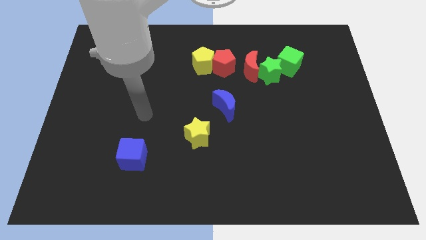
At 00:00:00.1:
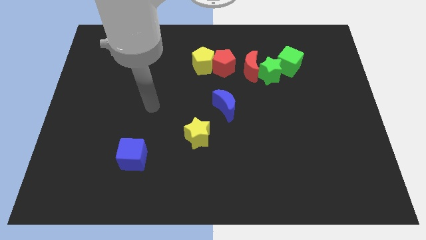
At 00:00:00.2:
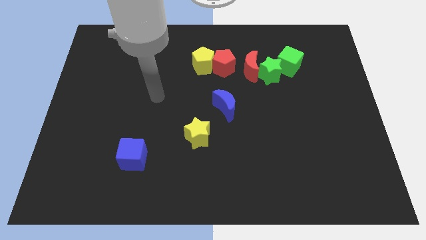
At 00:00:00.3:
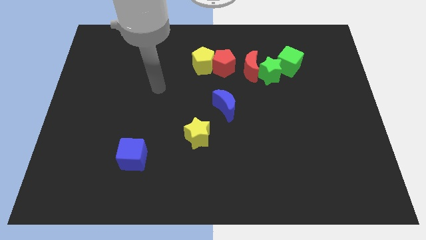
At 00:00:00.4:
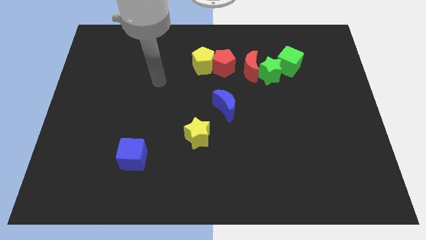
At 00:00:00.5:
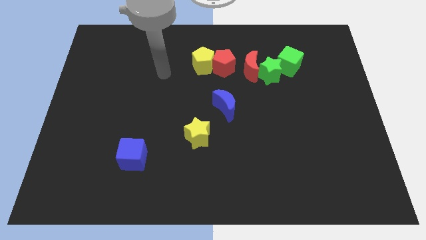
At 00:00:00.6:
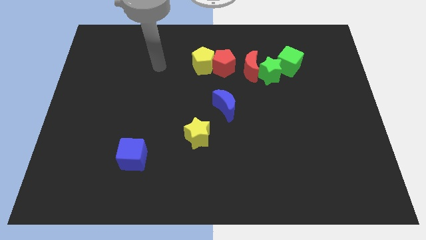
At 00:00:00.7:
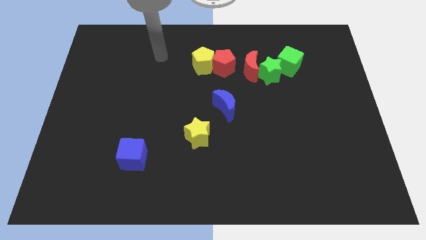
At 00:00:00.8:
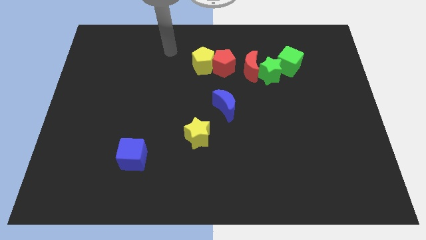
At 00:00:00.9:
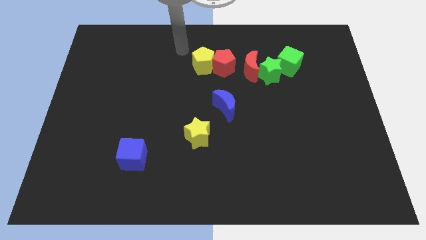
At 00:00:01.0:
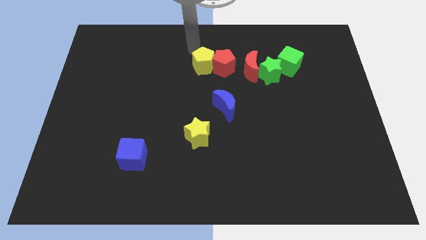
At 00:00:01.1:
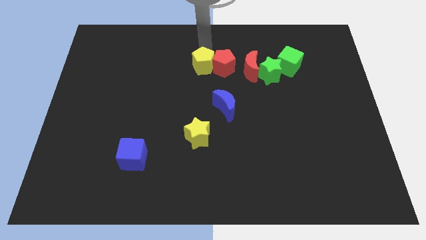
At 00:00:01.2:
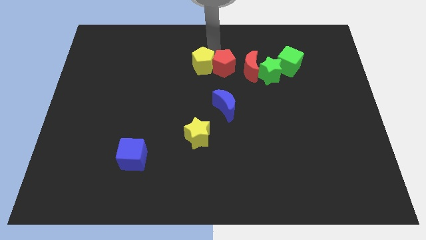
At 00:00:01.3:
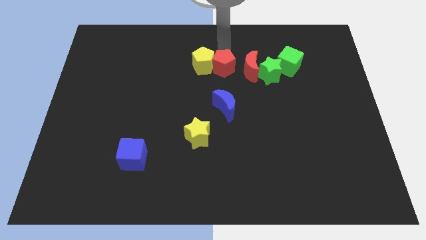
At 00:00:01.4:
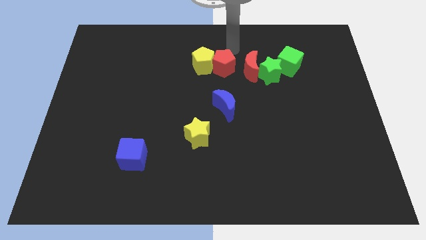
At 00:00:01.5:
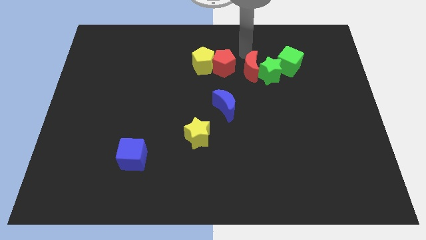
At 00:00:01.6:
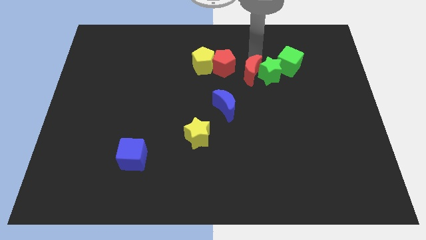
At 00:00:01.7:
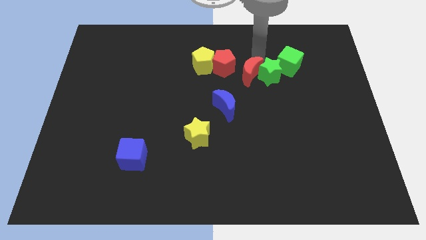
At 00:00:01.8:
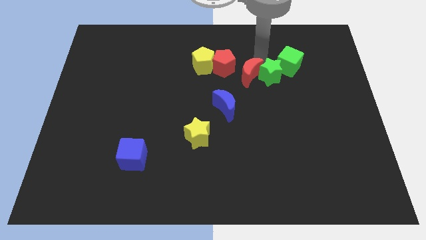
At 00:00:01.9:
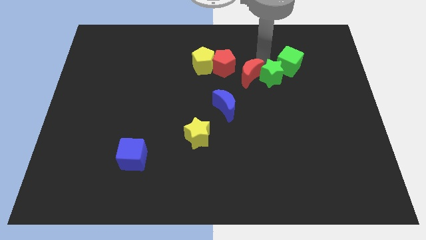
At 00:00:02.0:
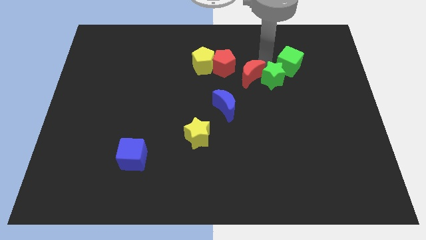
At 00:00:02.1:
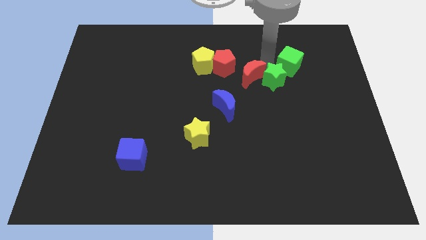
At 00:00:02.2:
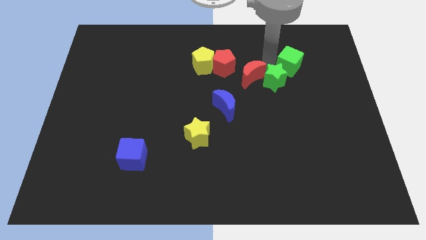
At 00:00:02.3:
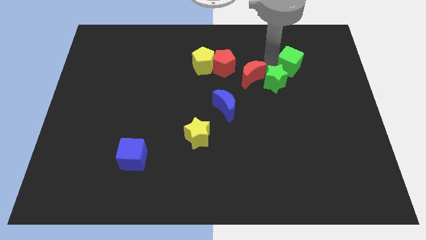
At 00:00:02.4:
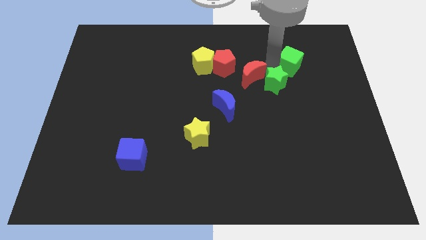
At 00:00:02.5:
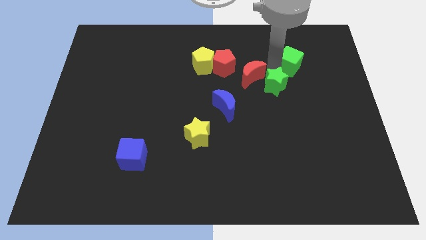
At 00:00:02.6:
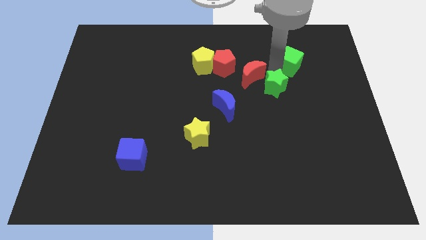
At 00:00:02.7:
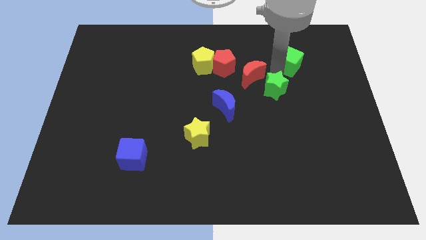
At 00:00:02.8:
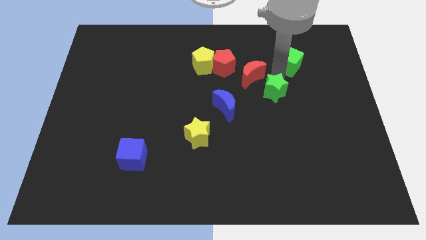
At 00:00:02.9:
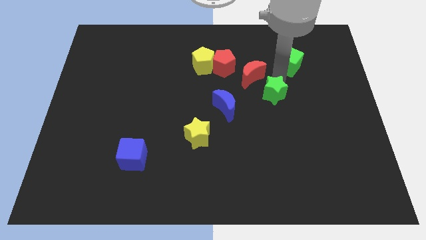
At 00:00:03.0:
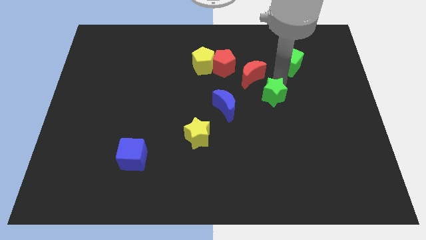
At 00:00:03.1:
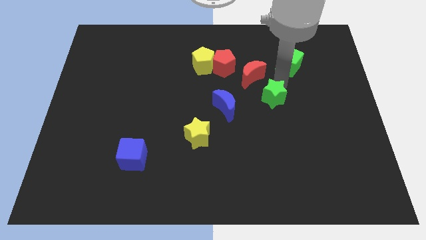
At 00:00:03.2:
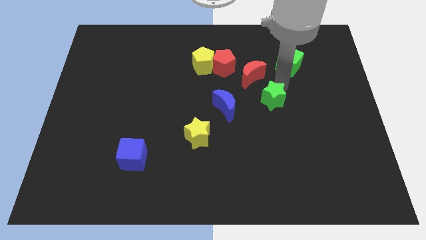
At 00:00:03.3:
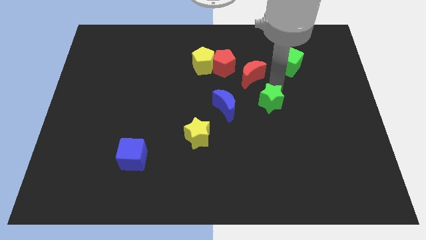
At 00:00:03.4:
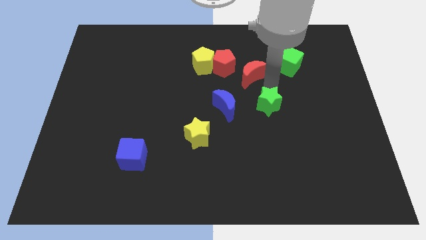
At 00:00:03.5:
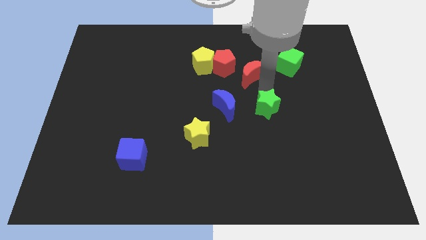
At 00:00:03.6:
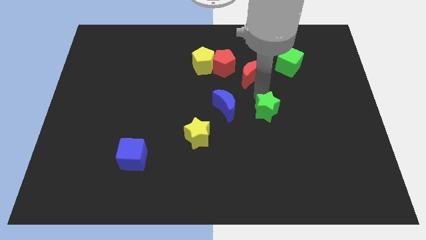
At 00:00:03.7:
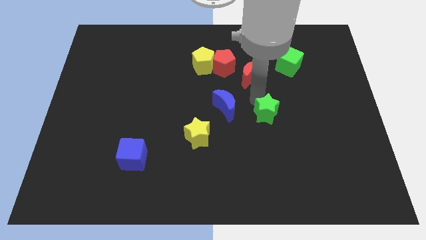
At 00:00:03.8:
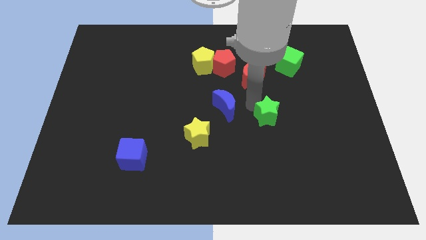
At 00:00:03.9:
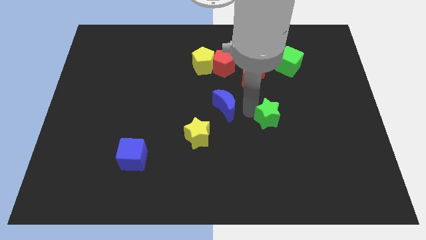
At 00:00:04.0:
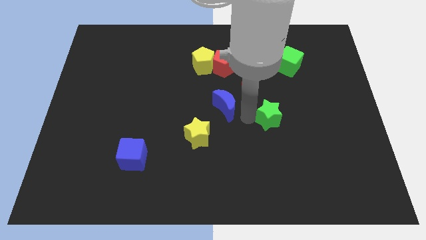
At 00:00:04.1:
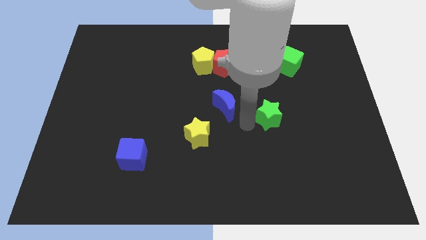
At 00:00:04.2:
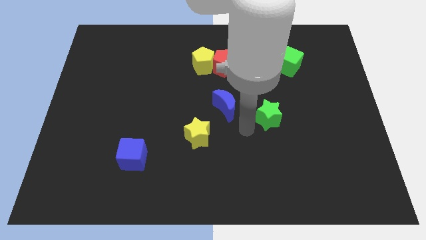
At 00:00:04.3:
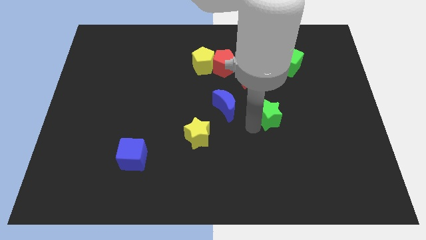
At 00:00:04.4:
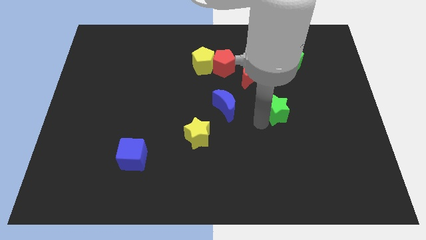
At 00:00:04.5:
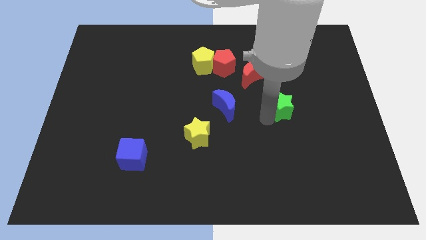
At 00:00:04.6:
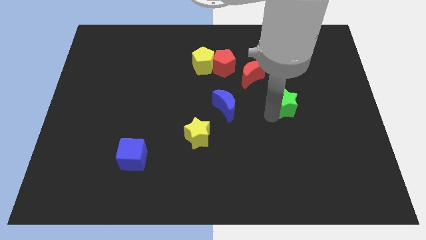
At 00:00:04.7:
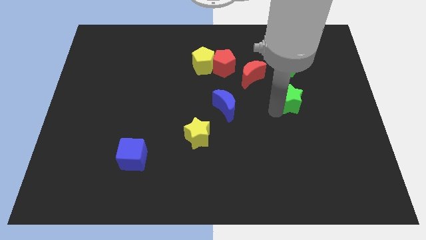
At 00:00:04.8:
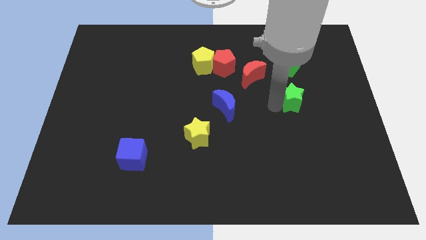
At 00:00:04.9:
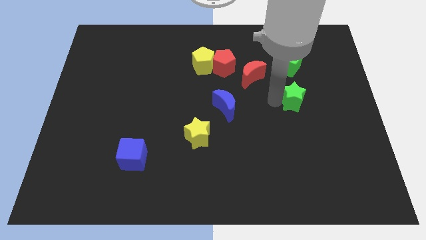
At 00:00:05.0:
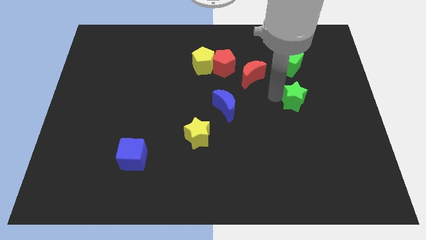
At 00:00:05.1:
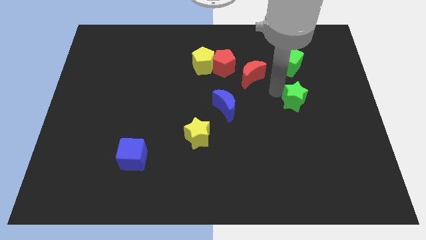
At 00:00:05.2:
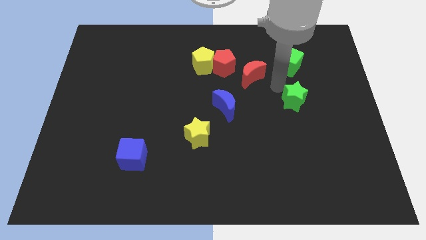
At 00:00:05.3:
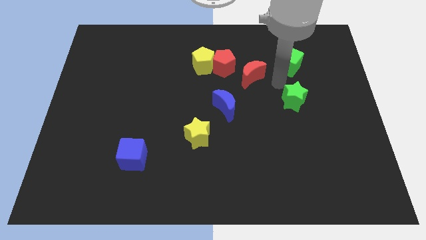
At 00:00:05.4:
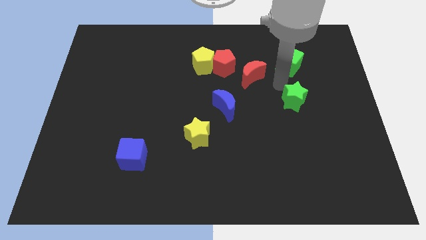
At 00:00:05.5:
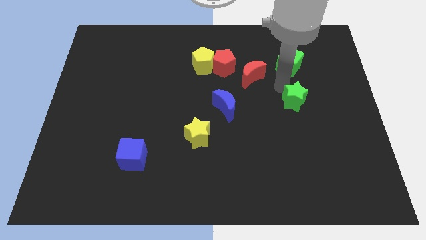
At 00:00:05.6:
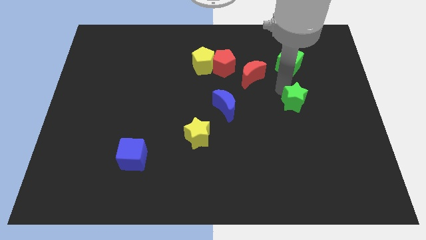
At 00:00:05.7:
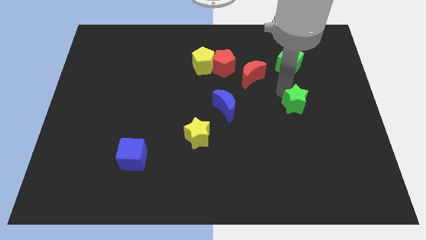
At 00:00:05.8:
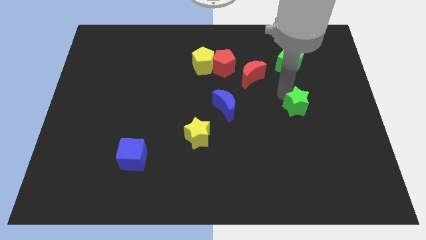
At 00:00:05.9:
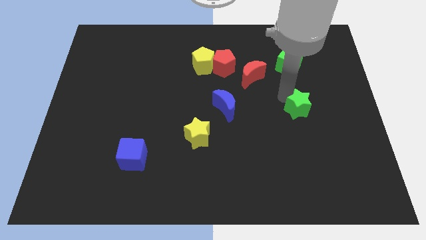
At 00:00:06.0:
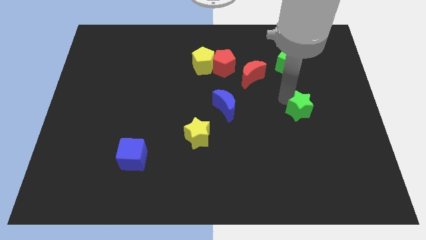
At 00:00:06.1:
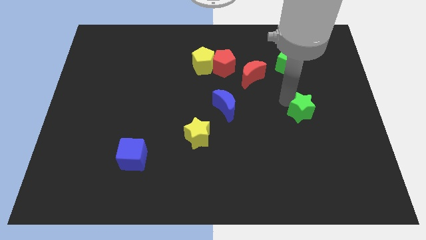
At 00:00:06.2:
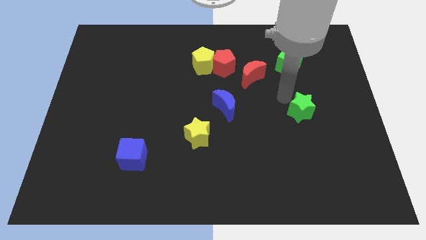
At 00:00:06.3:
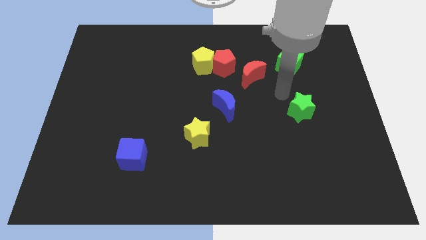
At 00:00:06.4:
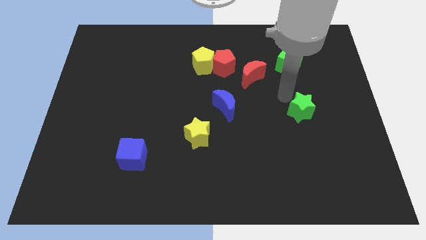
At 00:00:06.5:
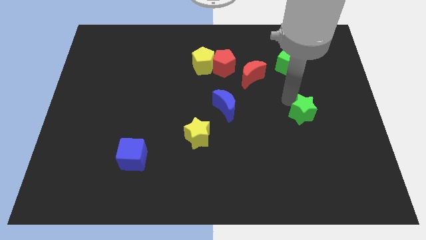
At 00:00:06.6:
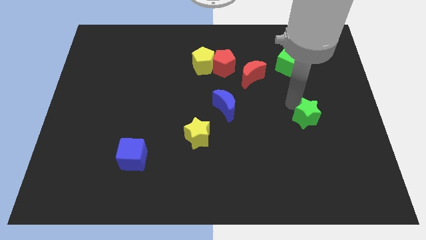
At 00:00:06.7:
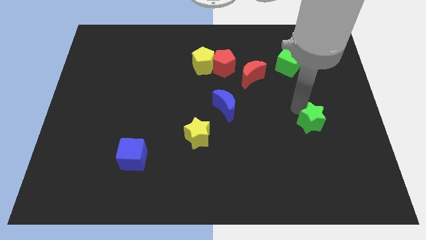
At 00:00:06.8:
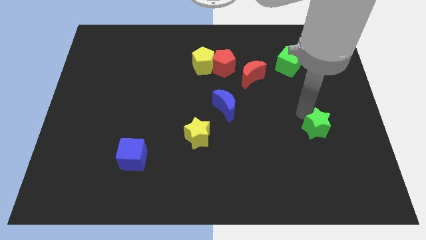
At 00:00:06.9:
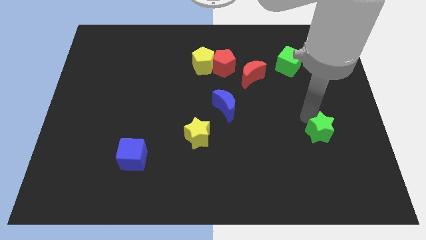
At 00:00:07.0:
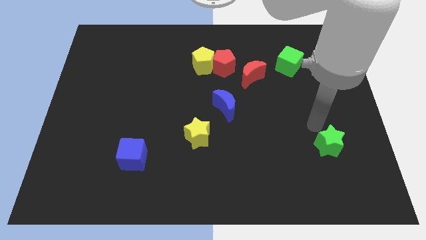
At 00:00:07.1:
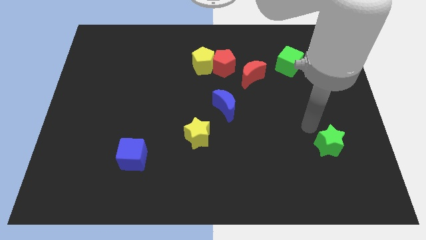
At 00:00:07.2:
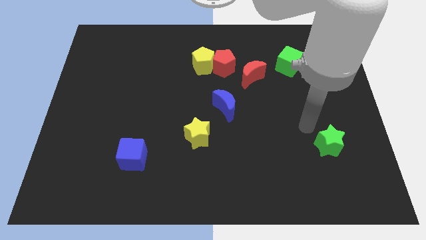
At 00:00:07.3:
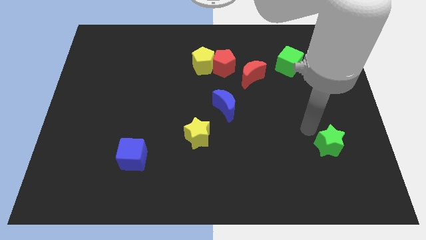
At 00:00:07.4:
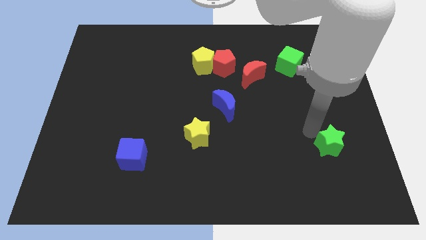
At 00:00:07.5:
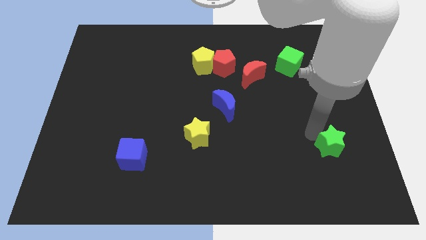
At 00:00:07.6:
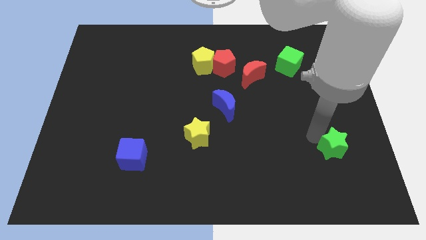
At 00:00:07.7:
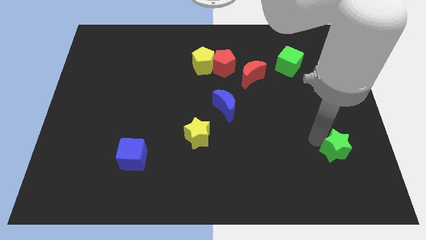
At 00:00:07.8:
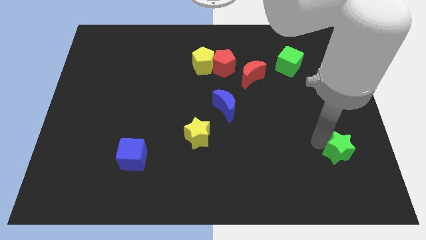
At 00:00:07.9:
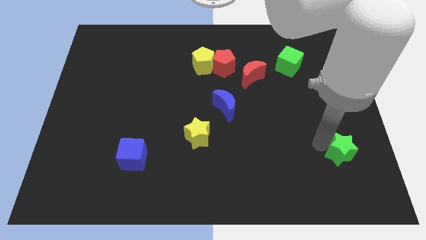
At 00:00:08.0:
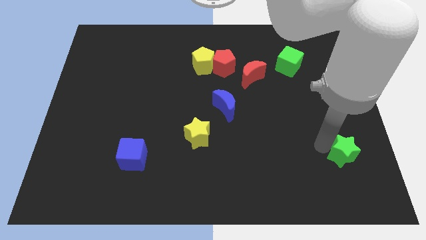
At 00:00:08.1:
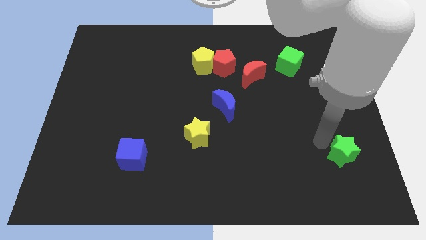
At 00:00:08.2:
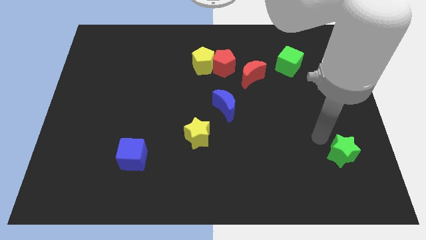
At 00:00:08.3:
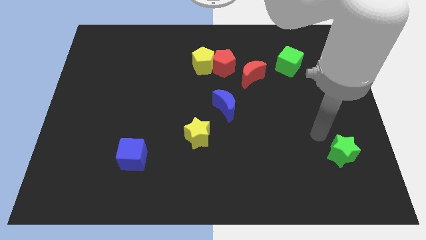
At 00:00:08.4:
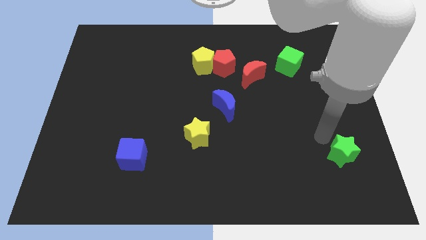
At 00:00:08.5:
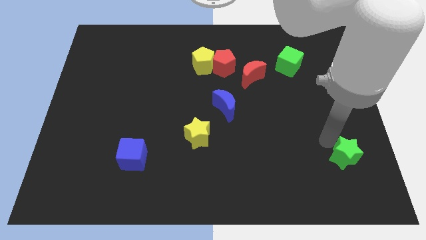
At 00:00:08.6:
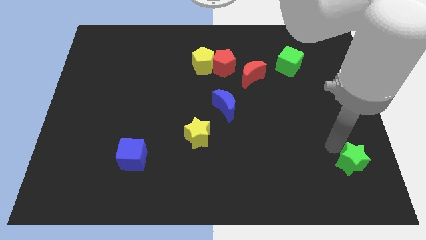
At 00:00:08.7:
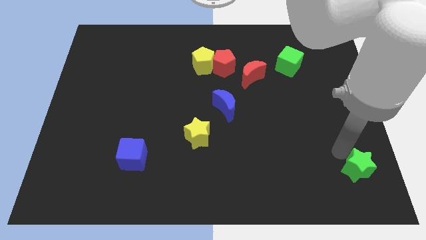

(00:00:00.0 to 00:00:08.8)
slide the green star to the bottom right corner
